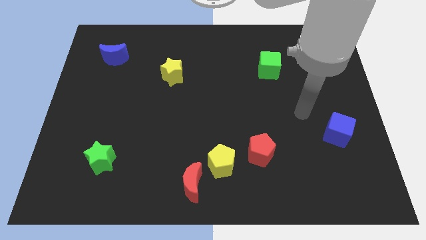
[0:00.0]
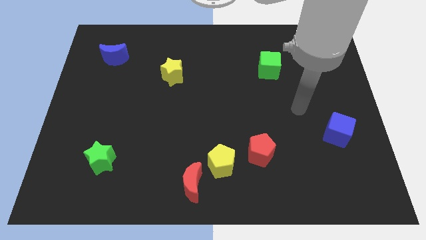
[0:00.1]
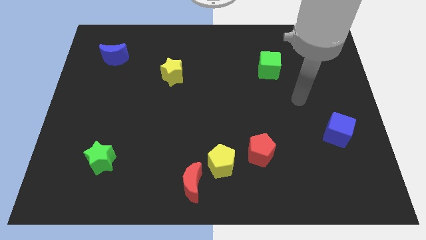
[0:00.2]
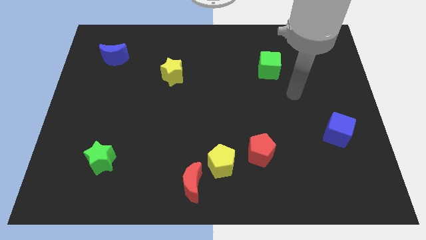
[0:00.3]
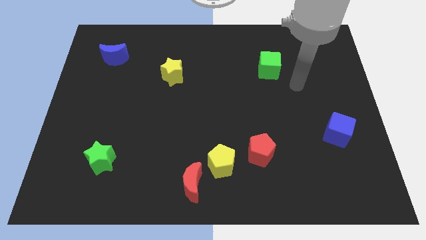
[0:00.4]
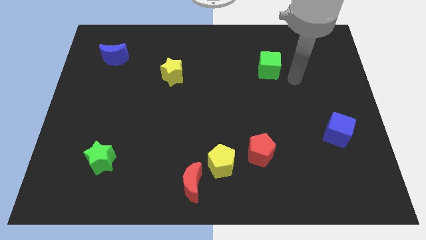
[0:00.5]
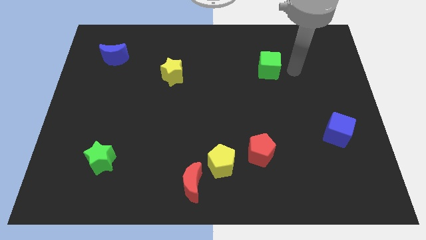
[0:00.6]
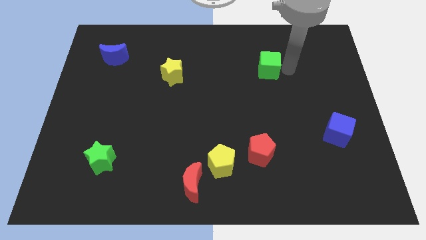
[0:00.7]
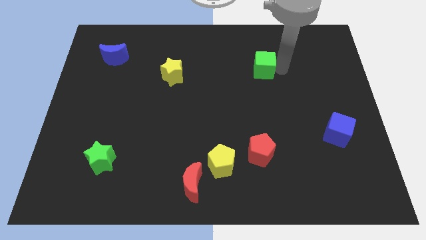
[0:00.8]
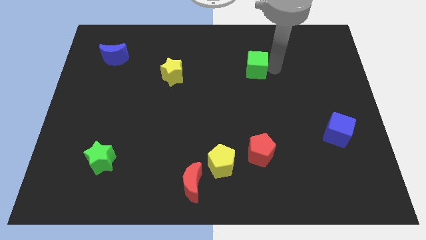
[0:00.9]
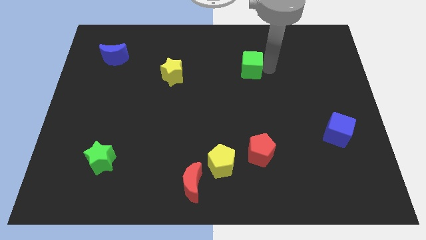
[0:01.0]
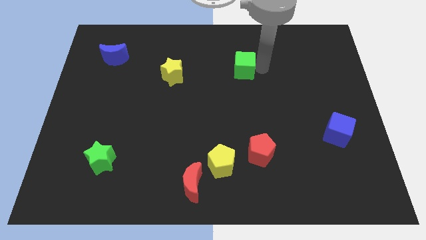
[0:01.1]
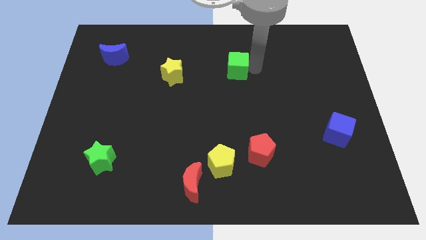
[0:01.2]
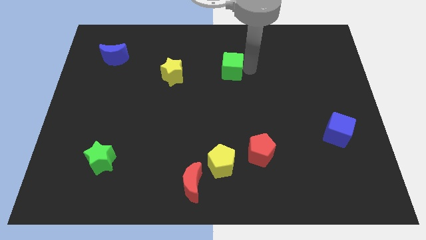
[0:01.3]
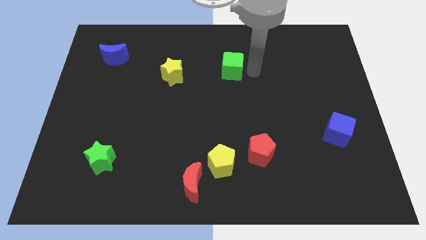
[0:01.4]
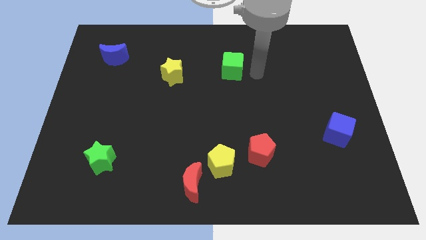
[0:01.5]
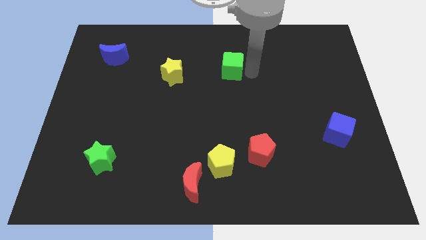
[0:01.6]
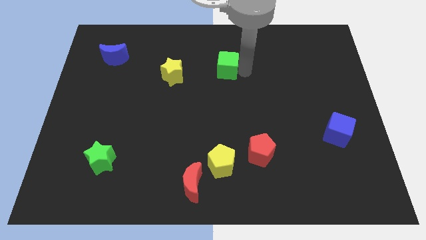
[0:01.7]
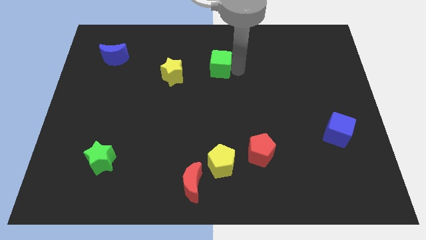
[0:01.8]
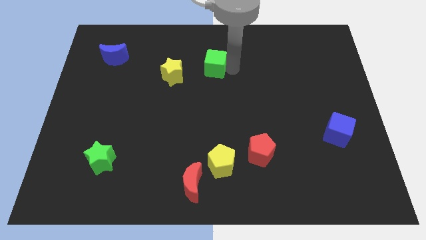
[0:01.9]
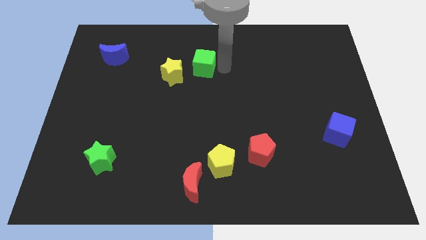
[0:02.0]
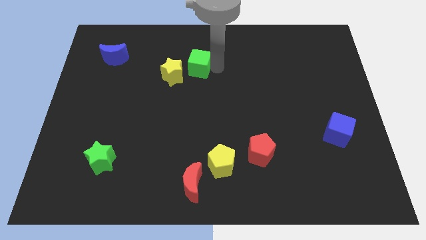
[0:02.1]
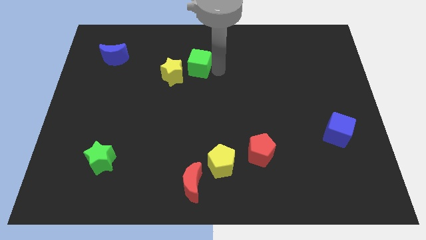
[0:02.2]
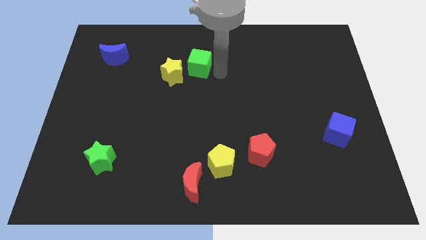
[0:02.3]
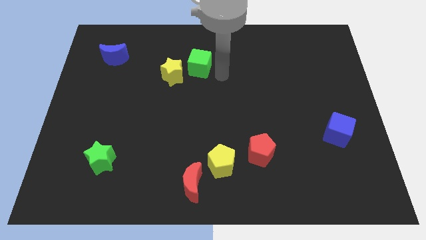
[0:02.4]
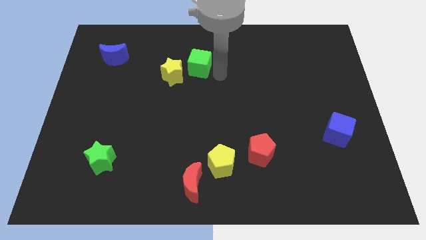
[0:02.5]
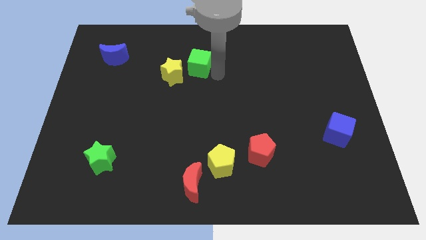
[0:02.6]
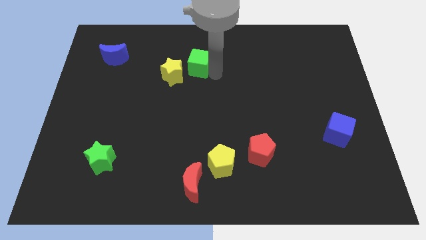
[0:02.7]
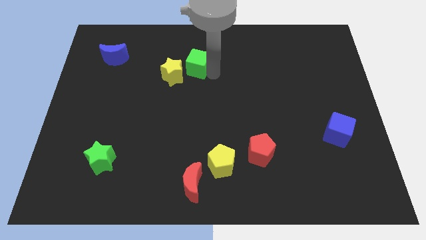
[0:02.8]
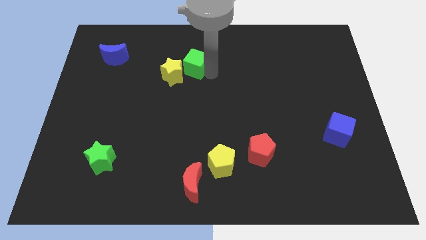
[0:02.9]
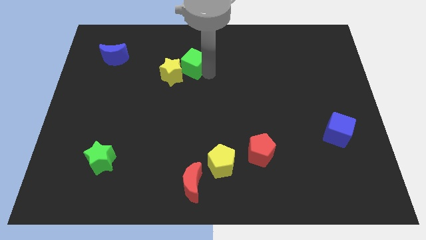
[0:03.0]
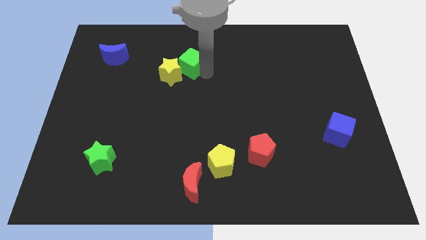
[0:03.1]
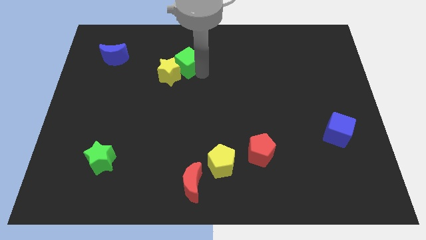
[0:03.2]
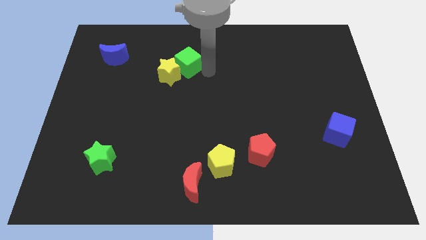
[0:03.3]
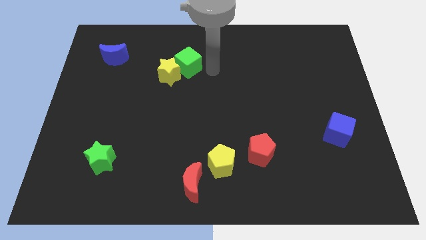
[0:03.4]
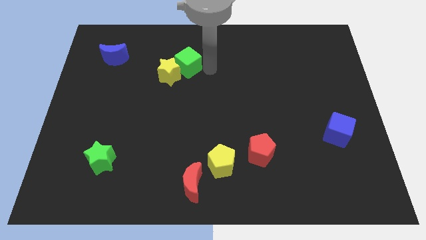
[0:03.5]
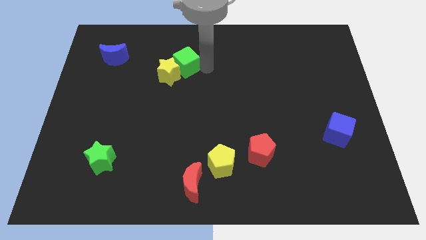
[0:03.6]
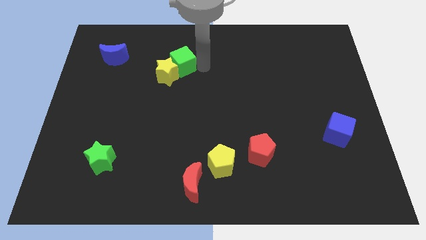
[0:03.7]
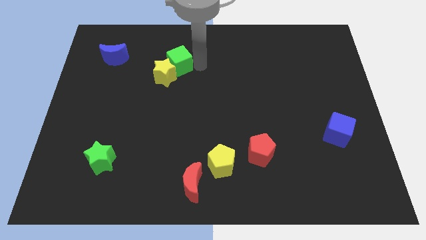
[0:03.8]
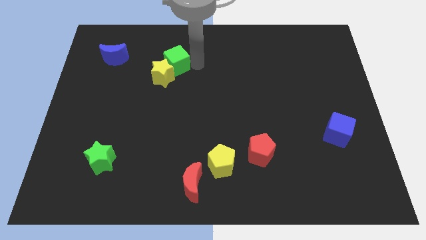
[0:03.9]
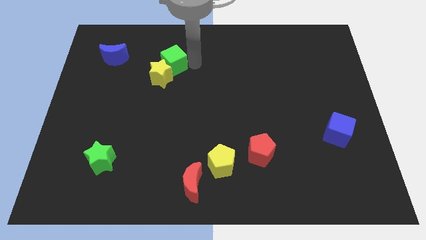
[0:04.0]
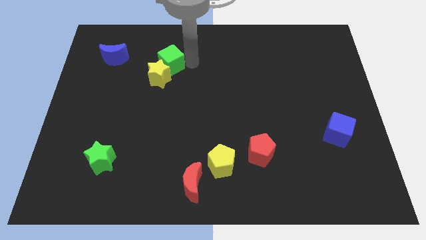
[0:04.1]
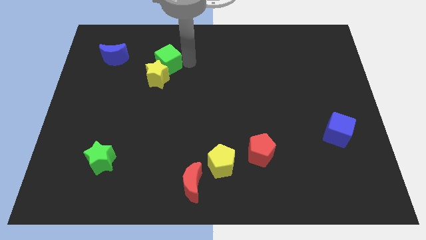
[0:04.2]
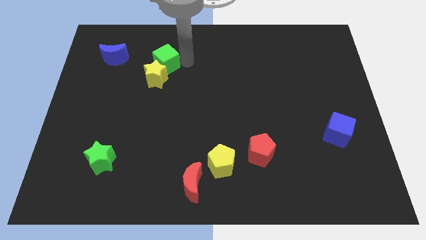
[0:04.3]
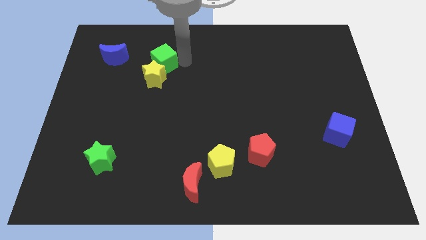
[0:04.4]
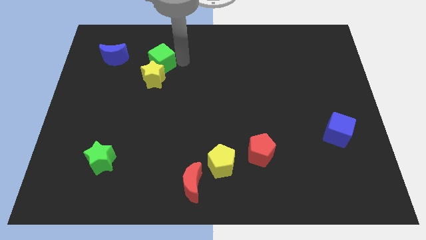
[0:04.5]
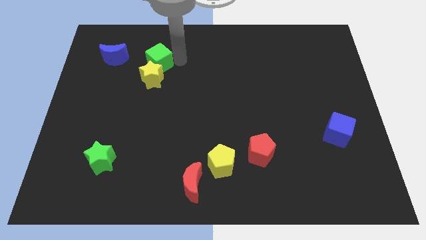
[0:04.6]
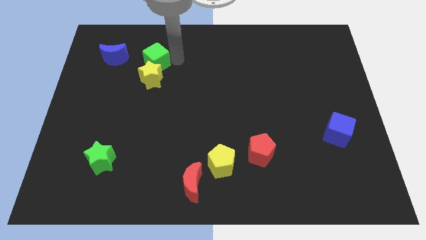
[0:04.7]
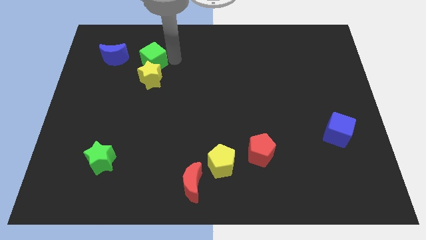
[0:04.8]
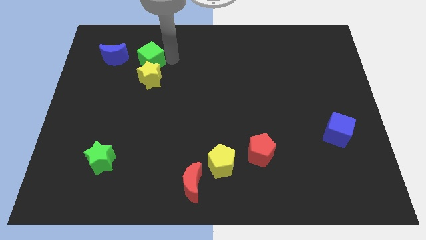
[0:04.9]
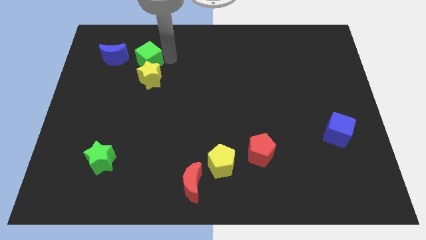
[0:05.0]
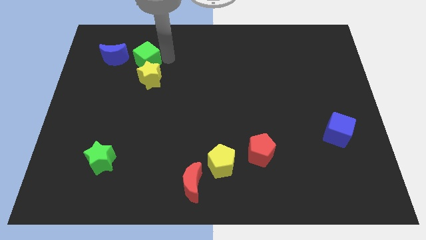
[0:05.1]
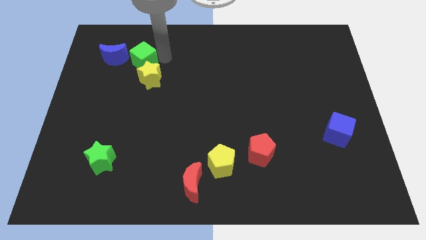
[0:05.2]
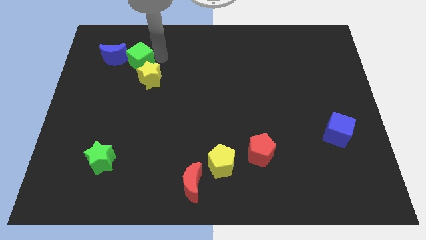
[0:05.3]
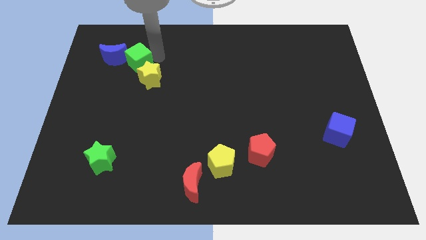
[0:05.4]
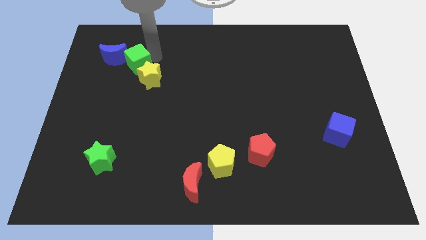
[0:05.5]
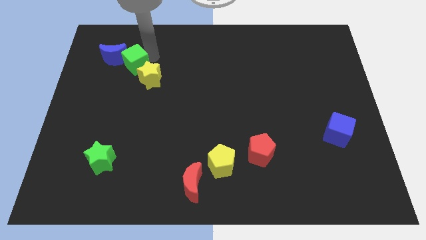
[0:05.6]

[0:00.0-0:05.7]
move the green cube next to the blue moon

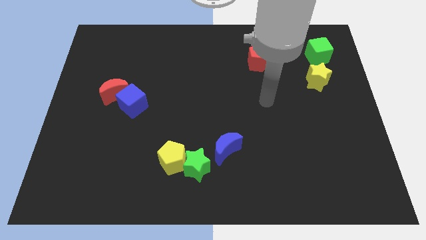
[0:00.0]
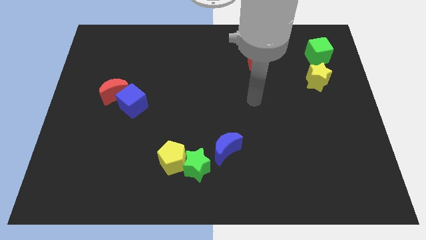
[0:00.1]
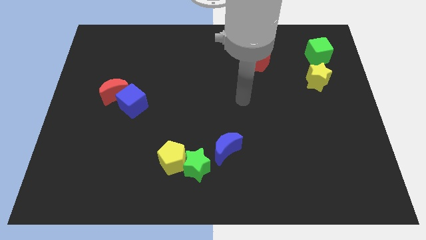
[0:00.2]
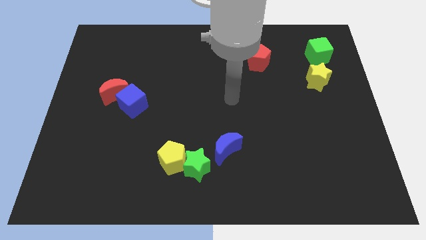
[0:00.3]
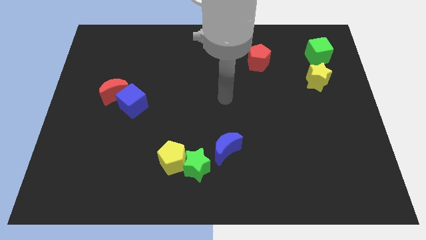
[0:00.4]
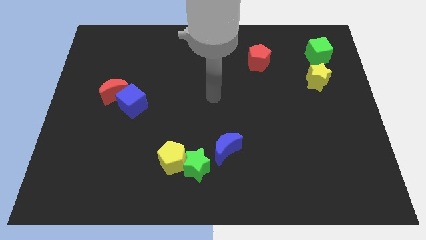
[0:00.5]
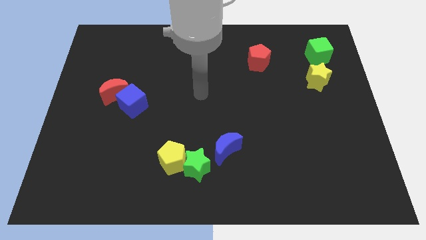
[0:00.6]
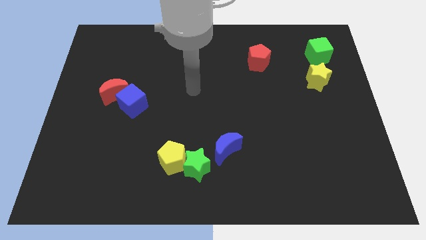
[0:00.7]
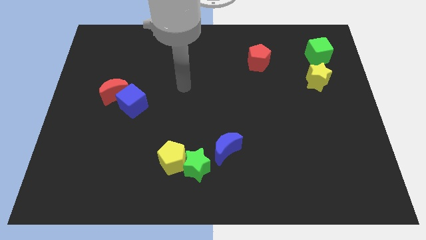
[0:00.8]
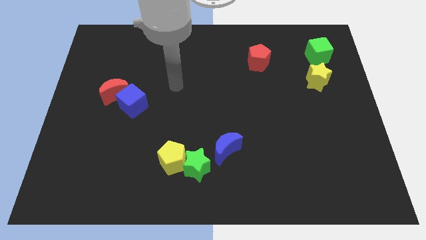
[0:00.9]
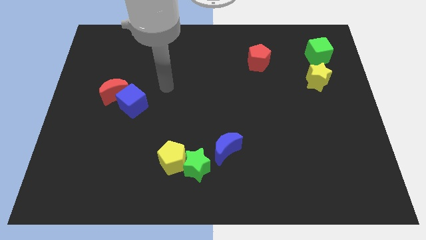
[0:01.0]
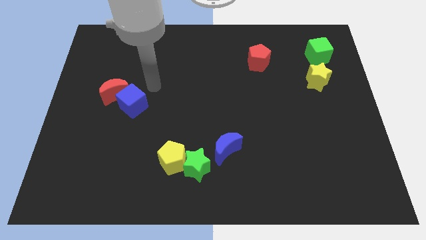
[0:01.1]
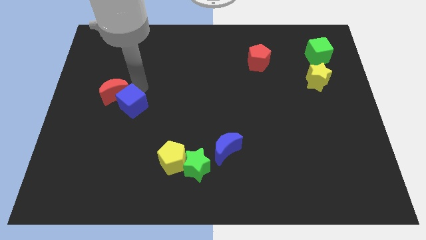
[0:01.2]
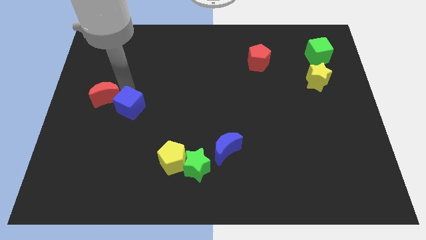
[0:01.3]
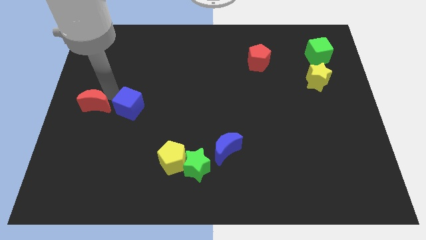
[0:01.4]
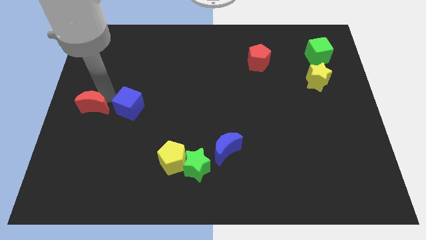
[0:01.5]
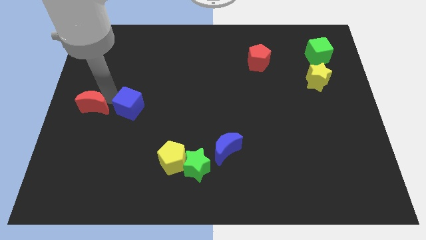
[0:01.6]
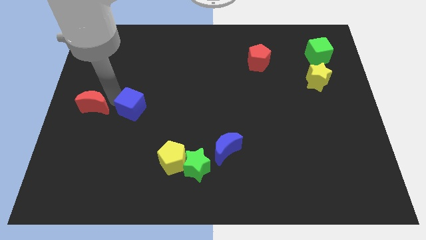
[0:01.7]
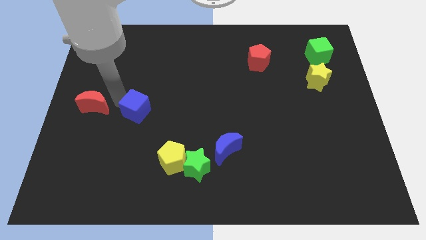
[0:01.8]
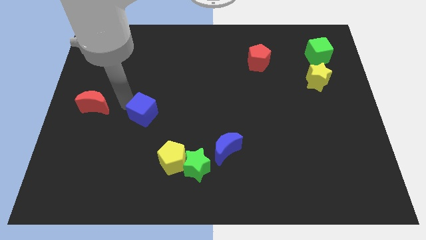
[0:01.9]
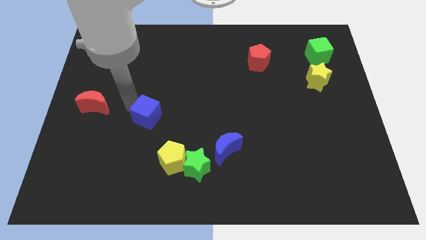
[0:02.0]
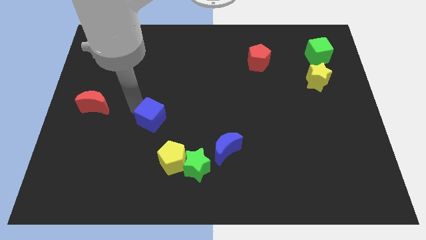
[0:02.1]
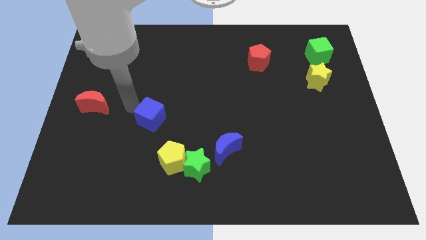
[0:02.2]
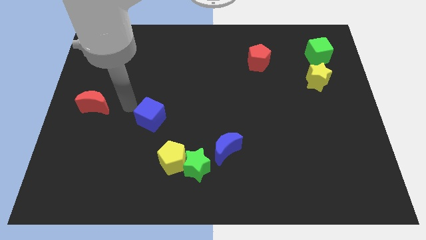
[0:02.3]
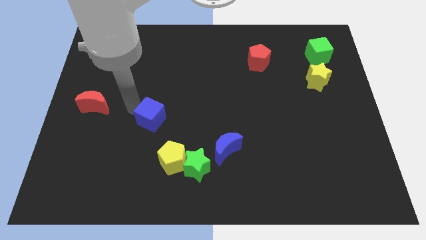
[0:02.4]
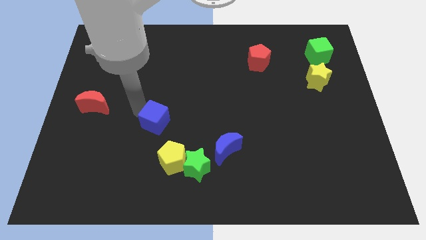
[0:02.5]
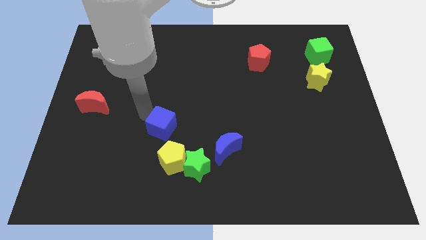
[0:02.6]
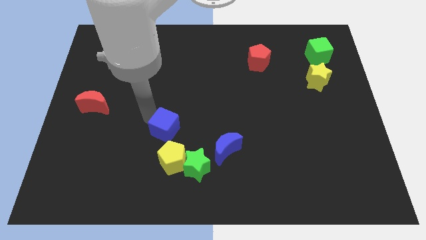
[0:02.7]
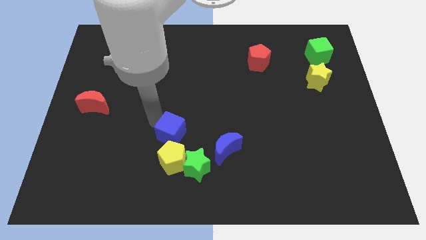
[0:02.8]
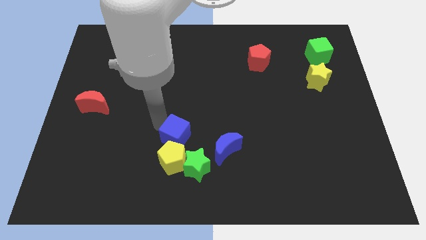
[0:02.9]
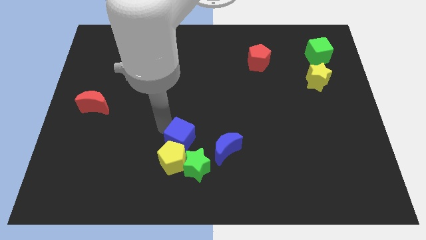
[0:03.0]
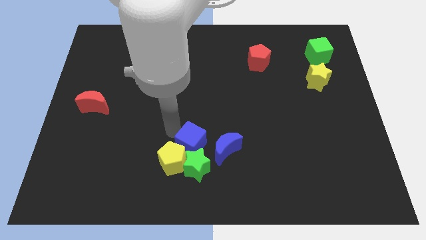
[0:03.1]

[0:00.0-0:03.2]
slide the blue cube close to the green star
